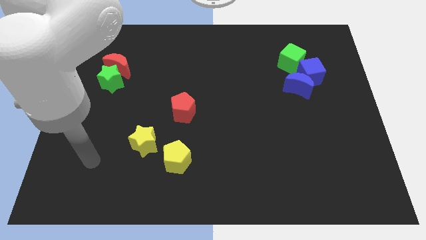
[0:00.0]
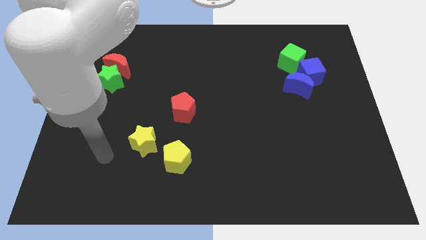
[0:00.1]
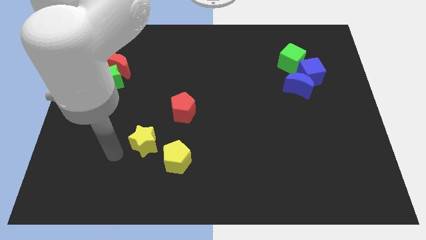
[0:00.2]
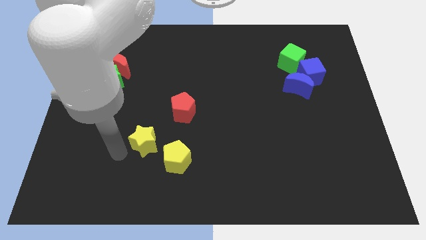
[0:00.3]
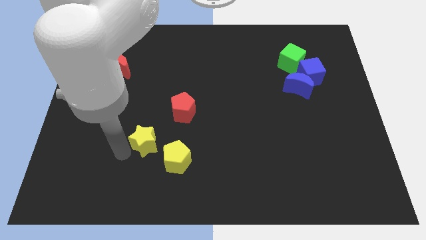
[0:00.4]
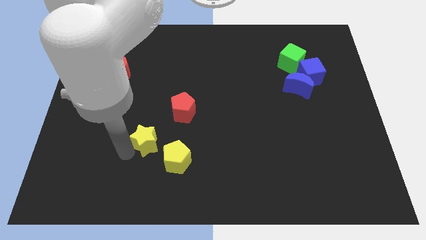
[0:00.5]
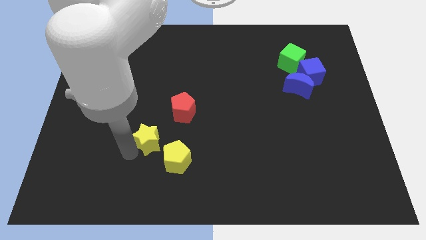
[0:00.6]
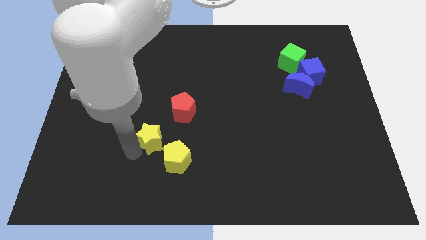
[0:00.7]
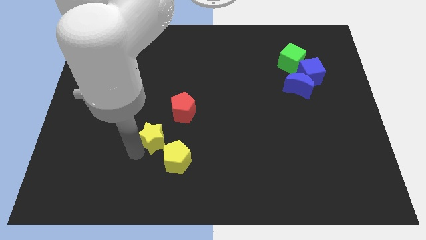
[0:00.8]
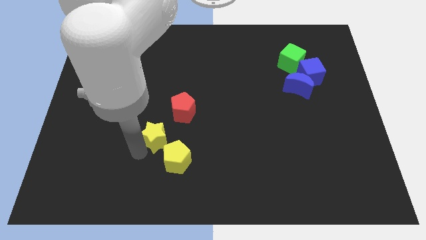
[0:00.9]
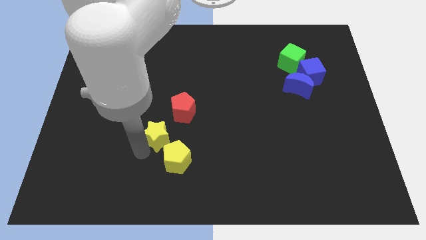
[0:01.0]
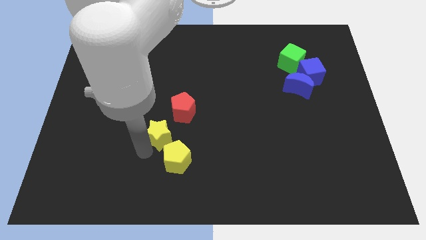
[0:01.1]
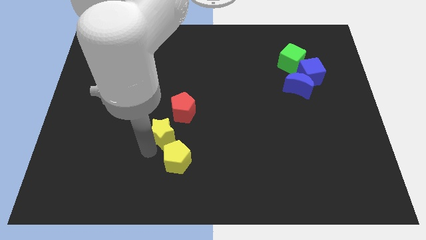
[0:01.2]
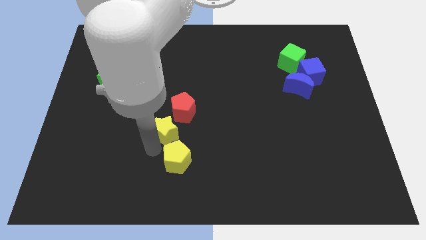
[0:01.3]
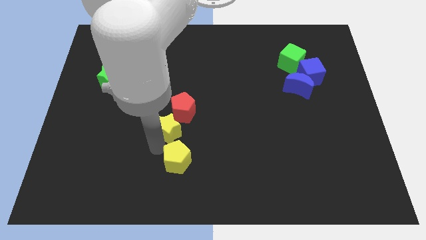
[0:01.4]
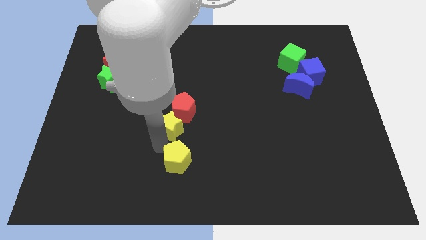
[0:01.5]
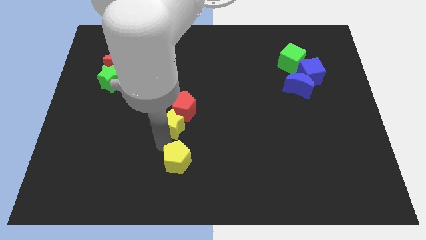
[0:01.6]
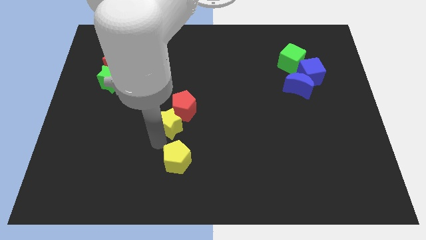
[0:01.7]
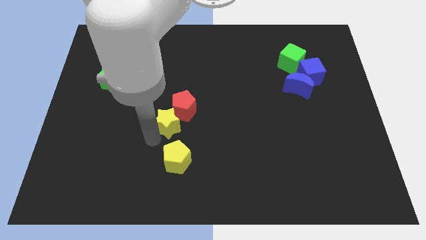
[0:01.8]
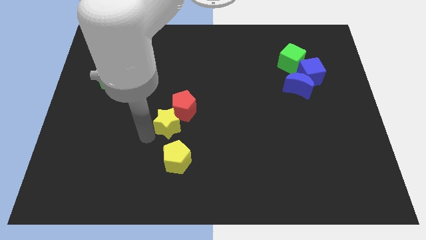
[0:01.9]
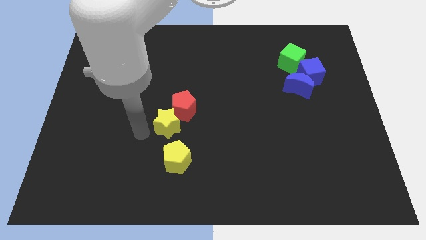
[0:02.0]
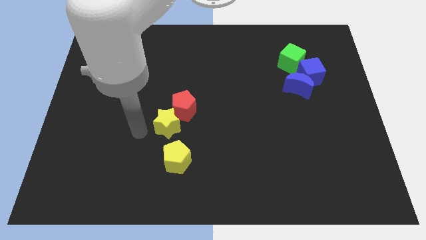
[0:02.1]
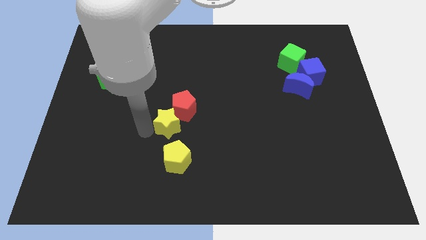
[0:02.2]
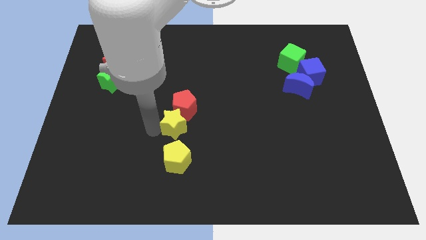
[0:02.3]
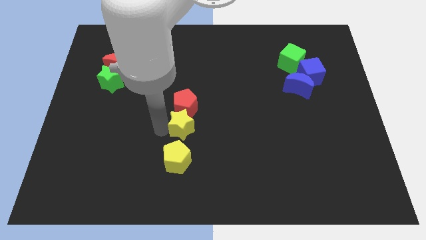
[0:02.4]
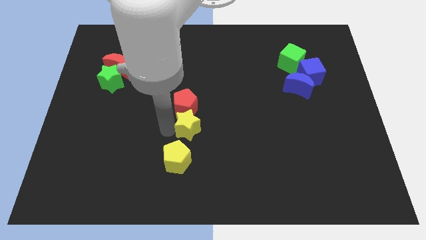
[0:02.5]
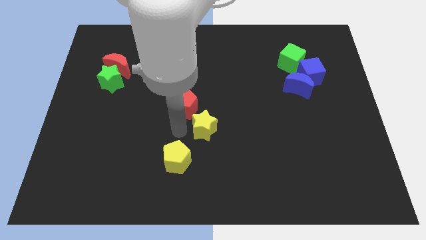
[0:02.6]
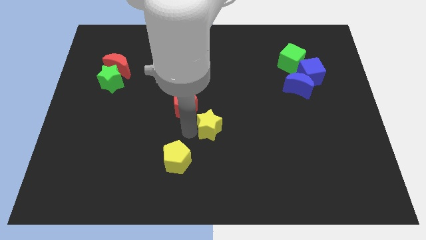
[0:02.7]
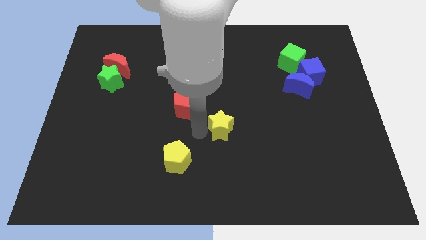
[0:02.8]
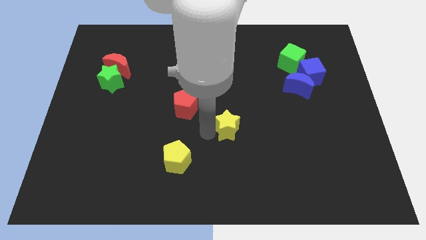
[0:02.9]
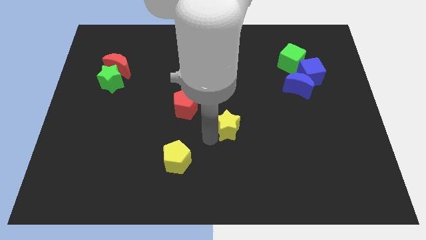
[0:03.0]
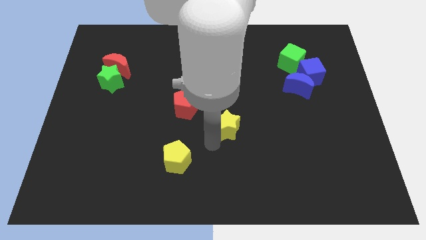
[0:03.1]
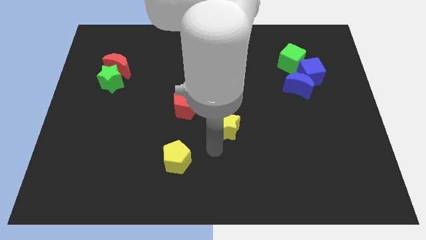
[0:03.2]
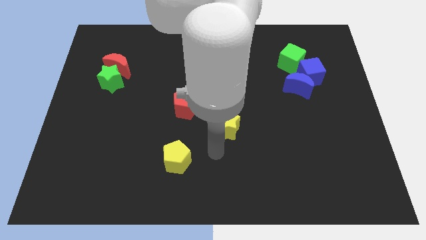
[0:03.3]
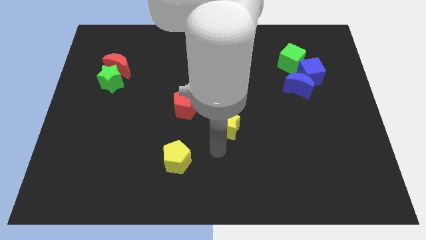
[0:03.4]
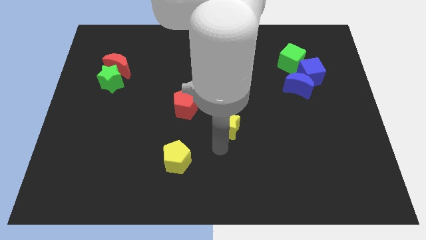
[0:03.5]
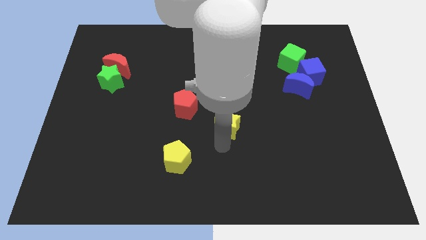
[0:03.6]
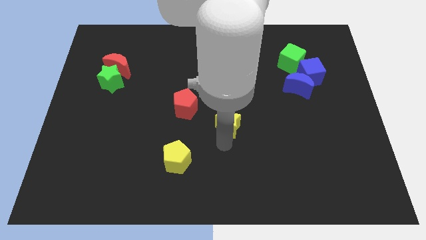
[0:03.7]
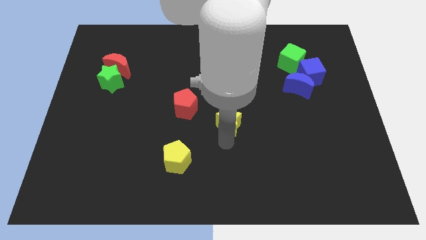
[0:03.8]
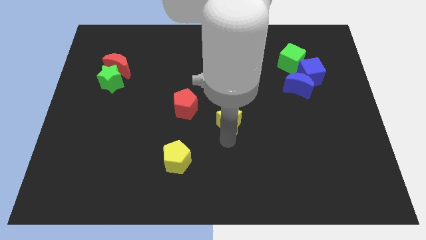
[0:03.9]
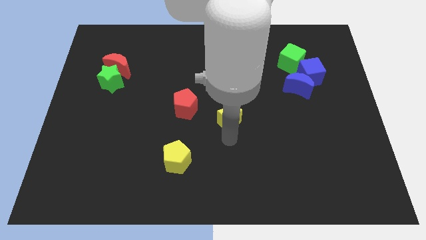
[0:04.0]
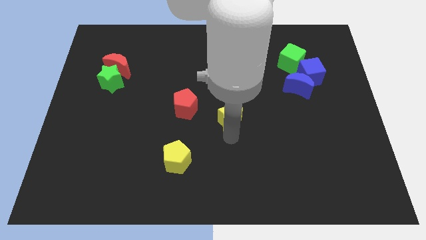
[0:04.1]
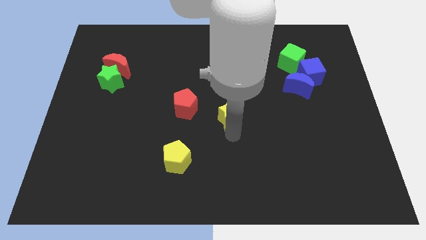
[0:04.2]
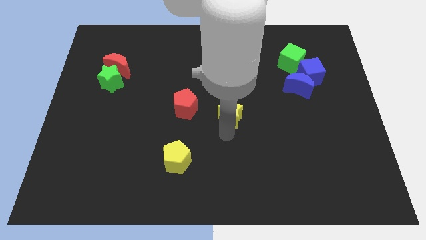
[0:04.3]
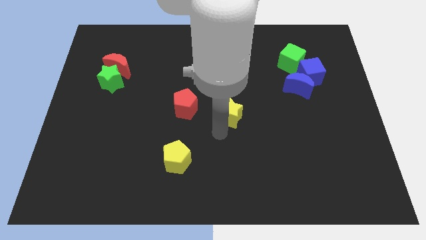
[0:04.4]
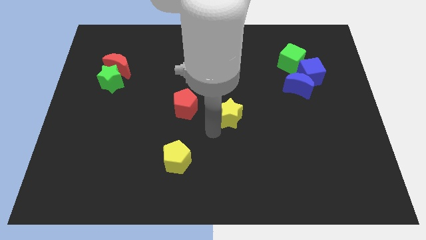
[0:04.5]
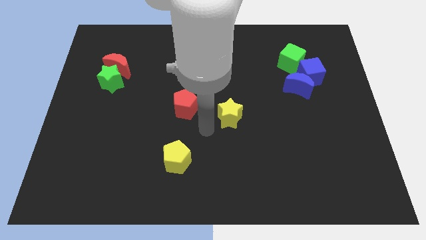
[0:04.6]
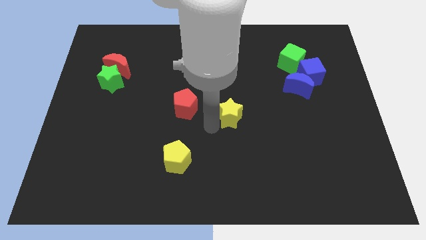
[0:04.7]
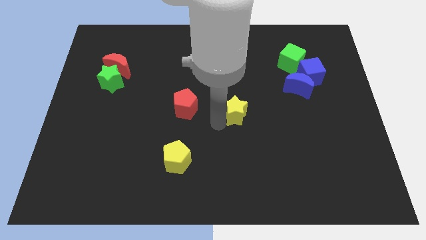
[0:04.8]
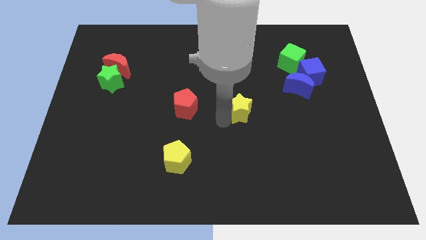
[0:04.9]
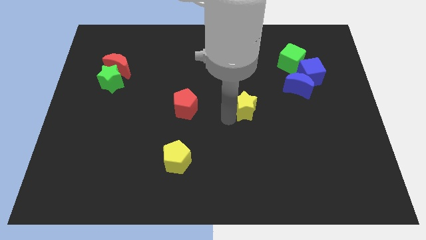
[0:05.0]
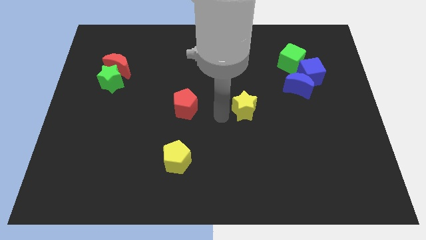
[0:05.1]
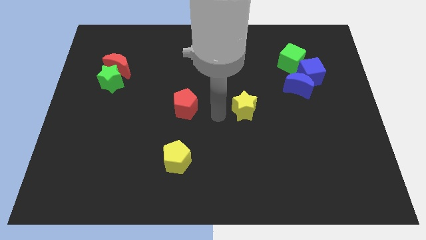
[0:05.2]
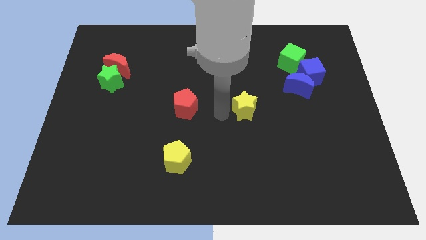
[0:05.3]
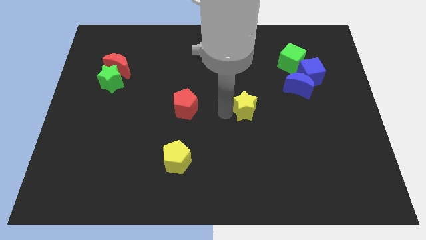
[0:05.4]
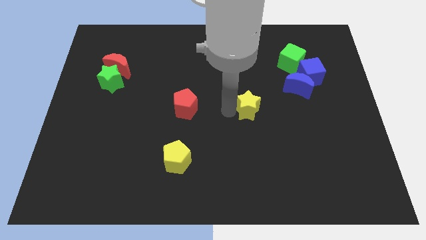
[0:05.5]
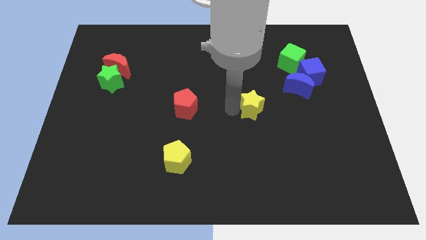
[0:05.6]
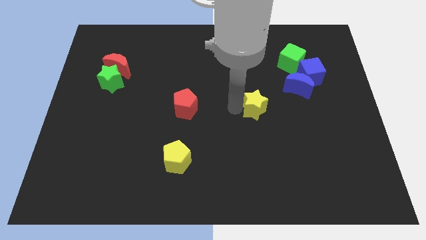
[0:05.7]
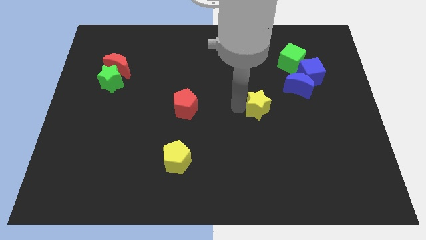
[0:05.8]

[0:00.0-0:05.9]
move the yellow star to the bottom left side of the blue moon

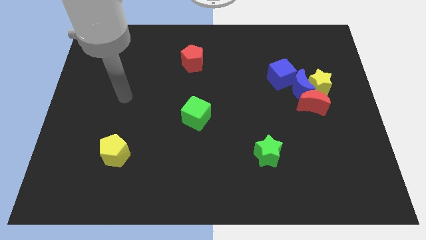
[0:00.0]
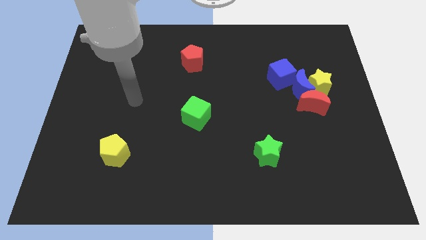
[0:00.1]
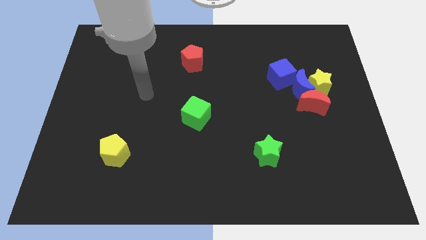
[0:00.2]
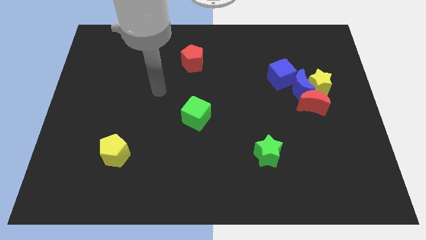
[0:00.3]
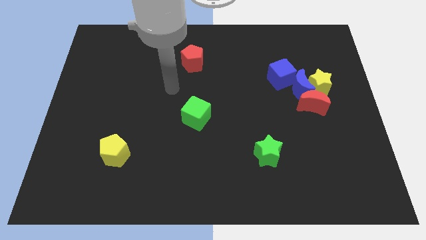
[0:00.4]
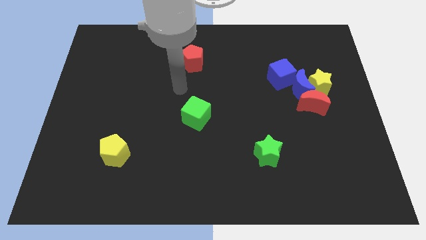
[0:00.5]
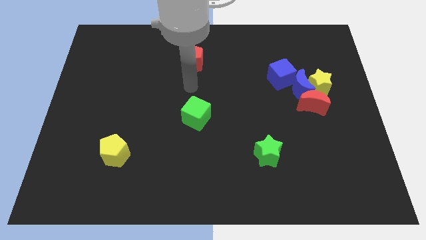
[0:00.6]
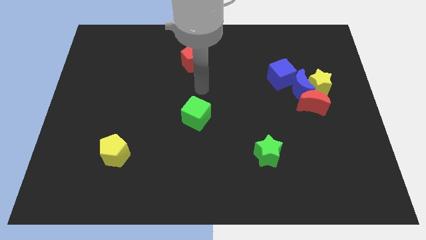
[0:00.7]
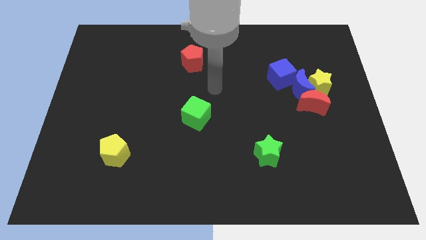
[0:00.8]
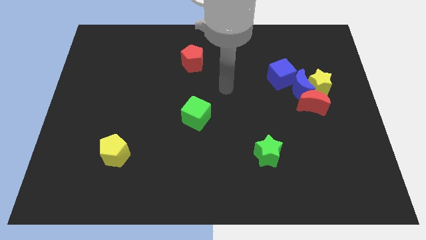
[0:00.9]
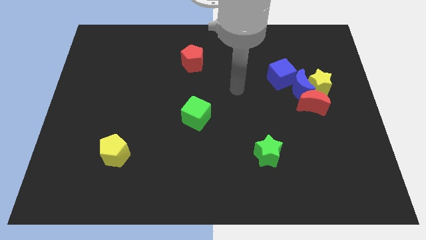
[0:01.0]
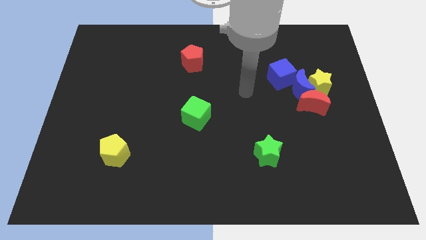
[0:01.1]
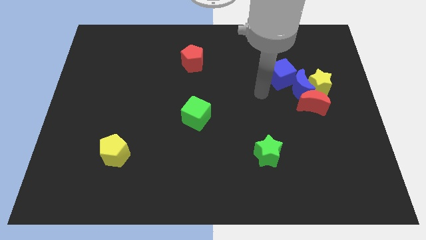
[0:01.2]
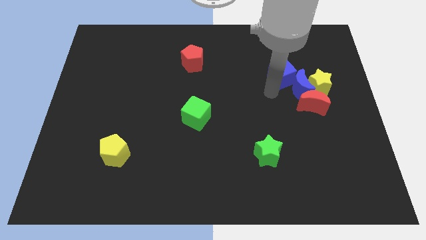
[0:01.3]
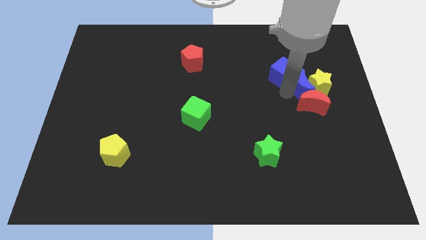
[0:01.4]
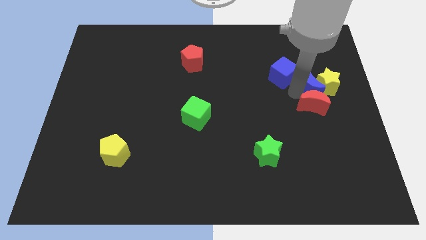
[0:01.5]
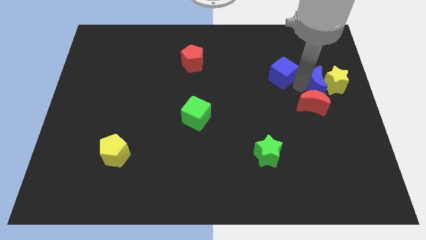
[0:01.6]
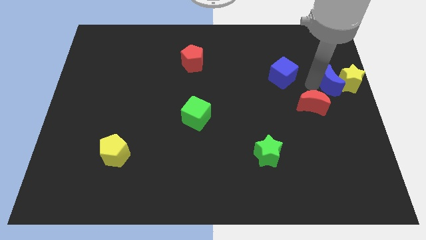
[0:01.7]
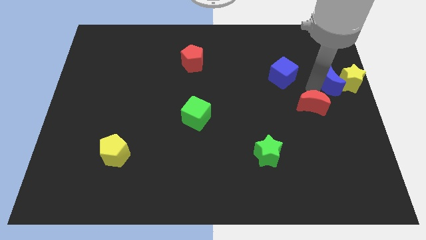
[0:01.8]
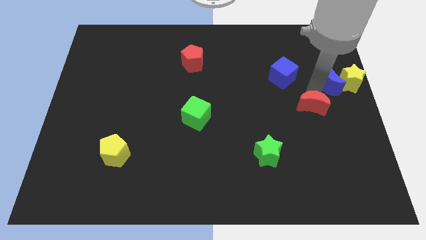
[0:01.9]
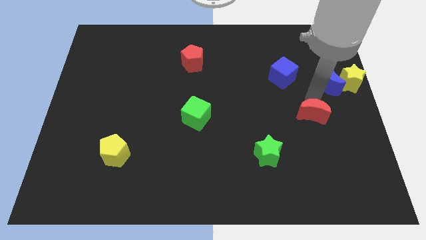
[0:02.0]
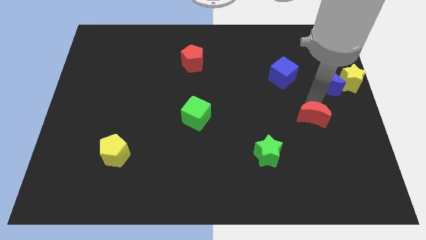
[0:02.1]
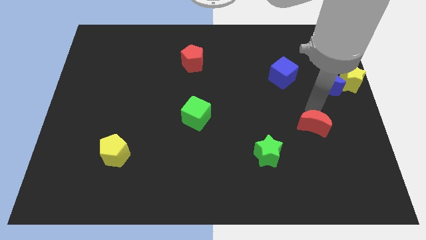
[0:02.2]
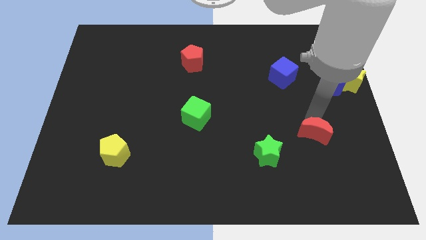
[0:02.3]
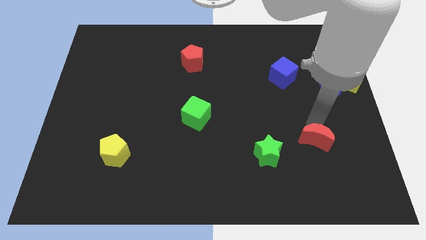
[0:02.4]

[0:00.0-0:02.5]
move the red moon just right of the green star
